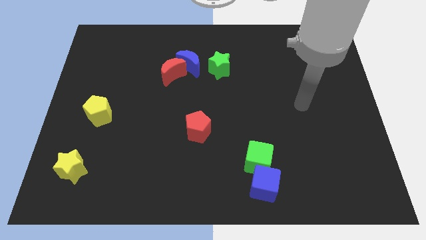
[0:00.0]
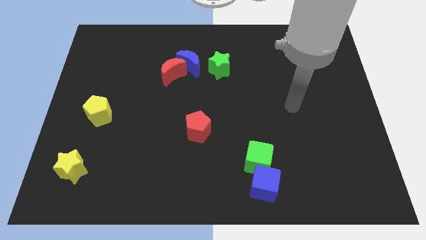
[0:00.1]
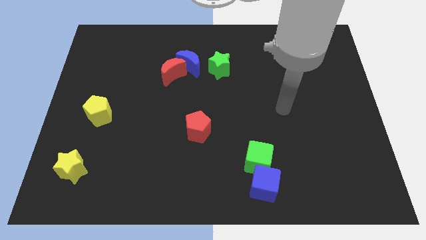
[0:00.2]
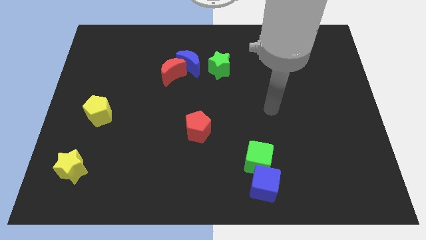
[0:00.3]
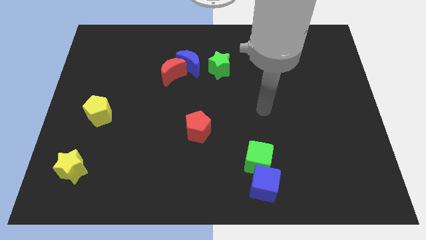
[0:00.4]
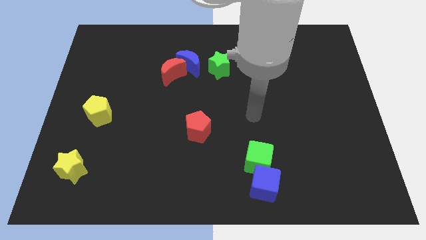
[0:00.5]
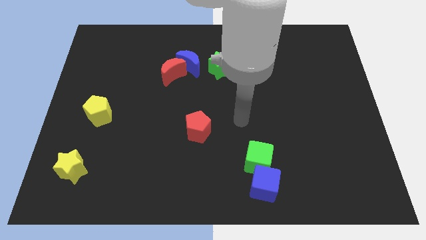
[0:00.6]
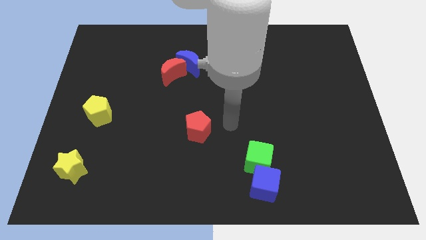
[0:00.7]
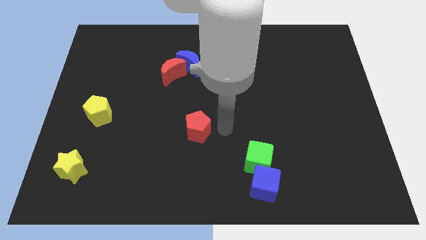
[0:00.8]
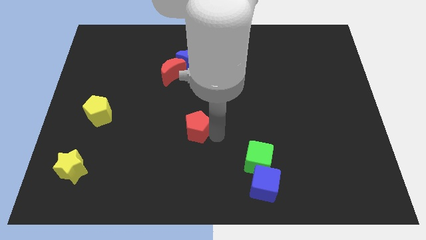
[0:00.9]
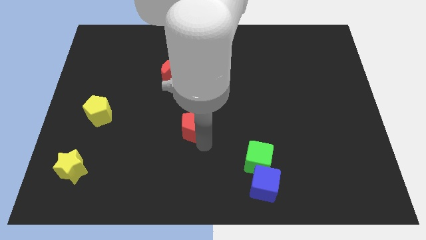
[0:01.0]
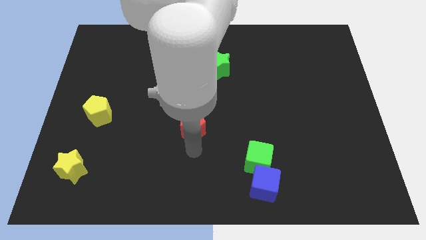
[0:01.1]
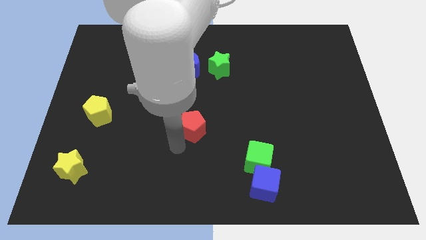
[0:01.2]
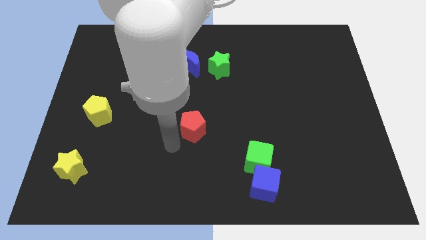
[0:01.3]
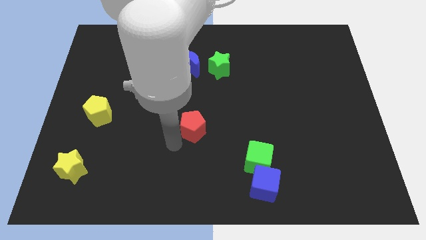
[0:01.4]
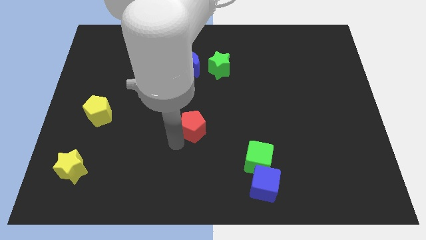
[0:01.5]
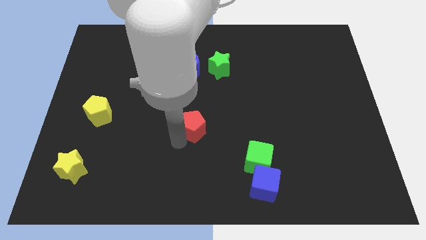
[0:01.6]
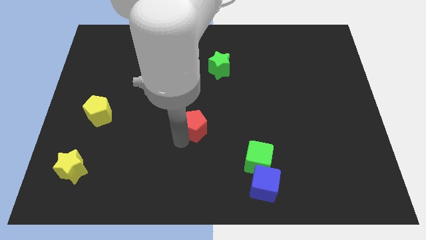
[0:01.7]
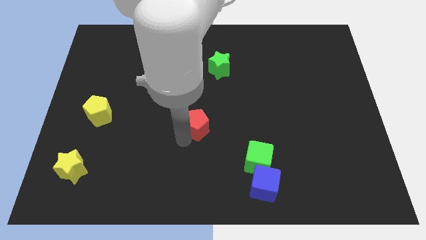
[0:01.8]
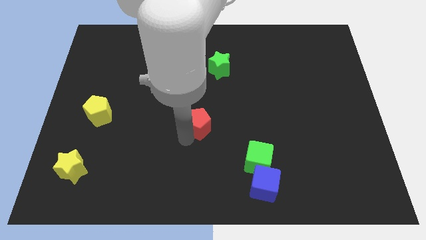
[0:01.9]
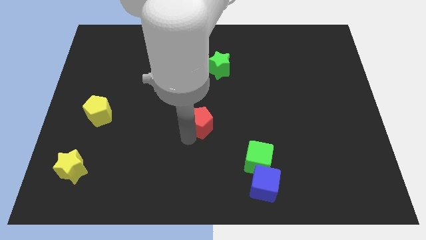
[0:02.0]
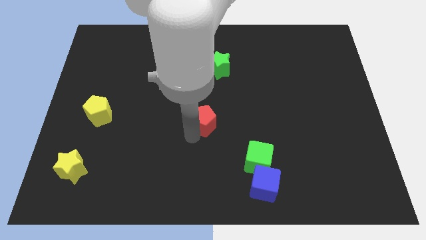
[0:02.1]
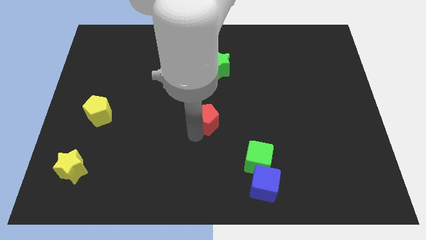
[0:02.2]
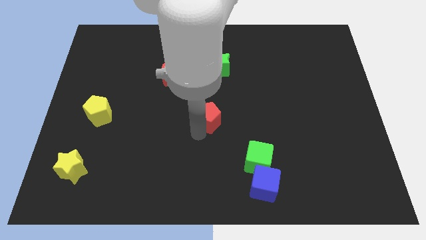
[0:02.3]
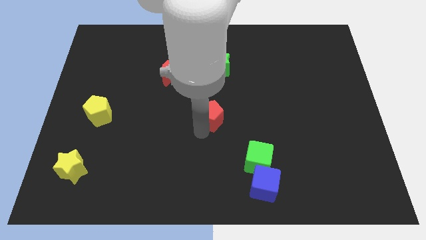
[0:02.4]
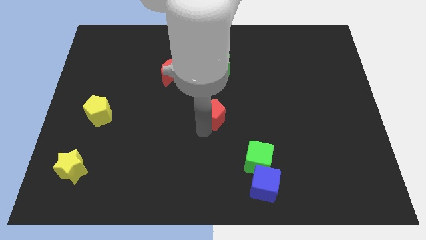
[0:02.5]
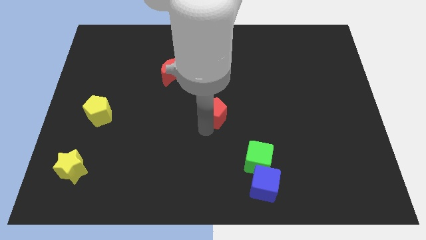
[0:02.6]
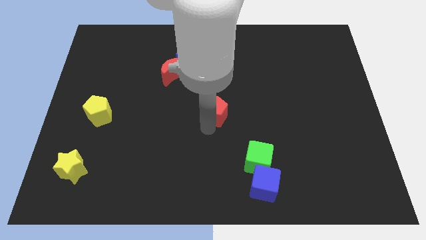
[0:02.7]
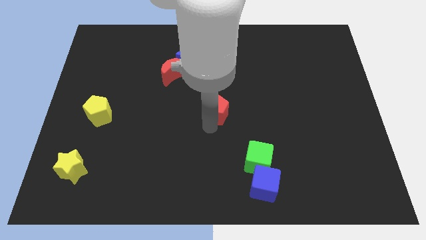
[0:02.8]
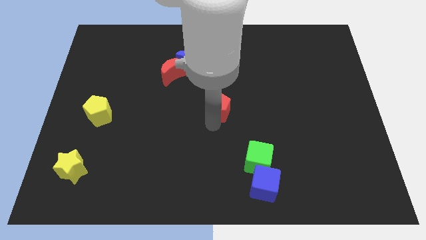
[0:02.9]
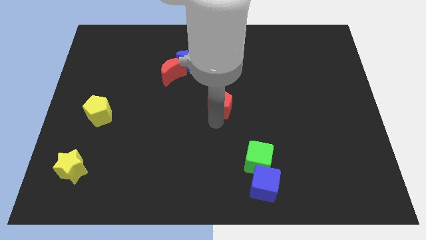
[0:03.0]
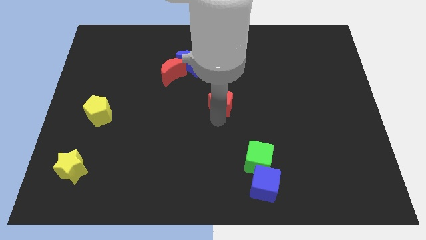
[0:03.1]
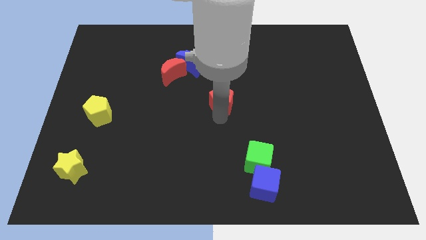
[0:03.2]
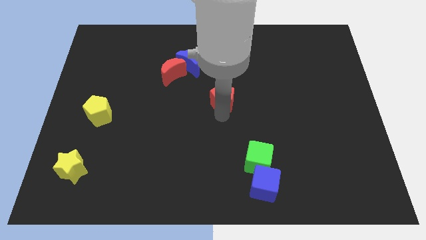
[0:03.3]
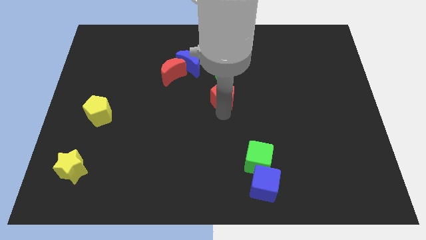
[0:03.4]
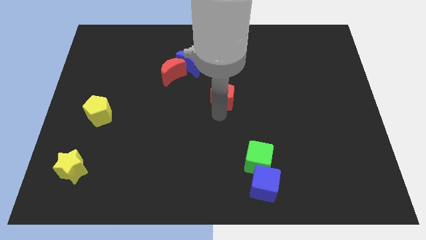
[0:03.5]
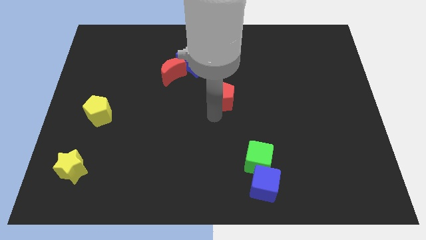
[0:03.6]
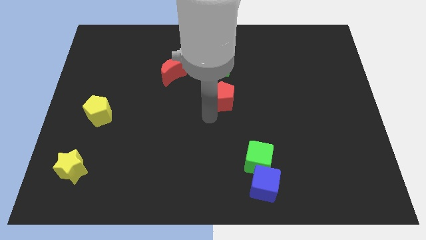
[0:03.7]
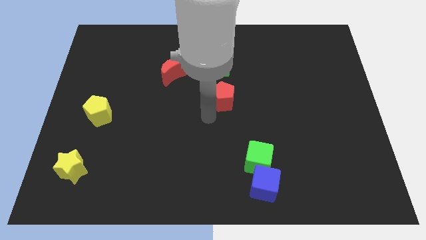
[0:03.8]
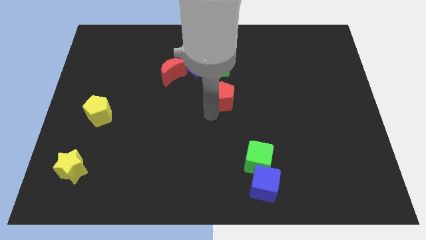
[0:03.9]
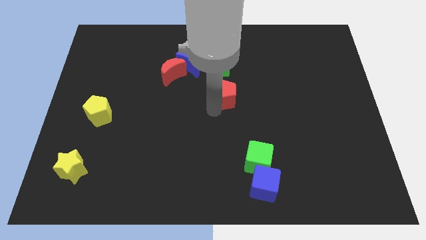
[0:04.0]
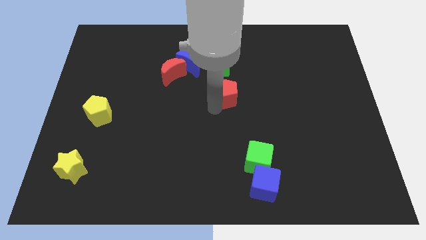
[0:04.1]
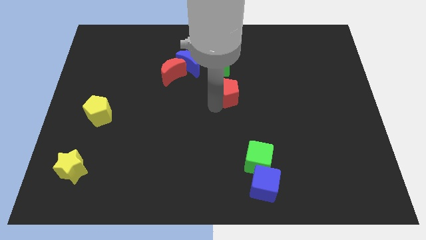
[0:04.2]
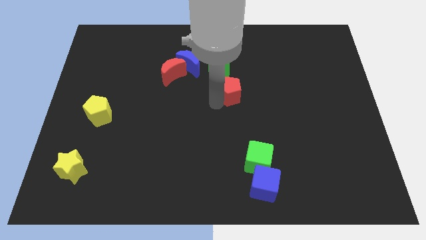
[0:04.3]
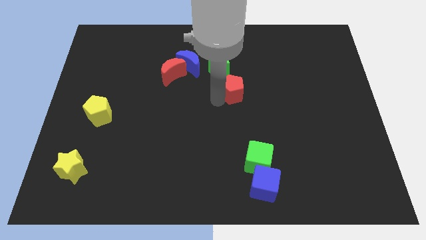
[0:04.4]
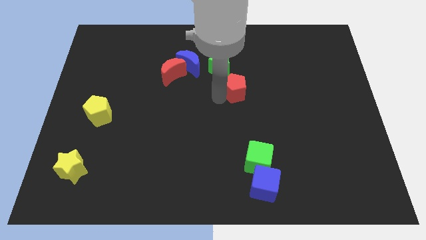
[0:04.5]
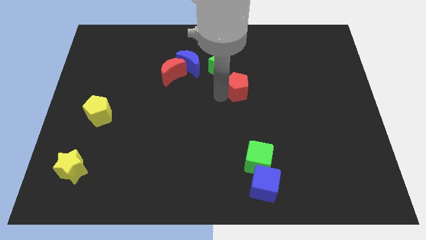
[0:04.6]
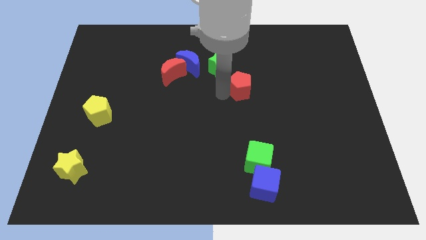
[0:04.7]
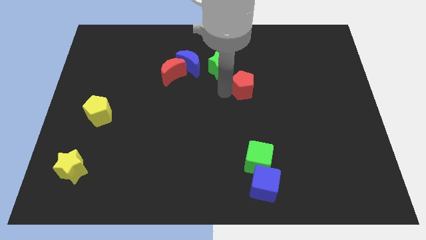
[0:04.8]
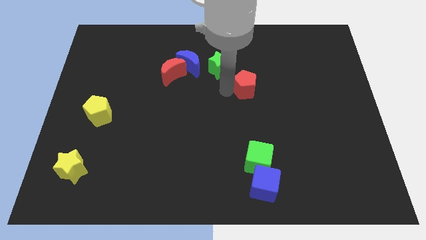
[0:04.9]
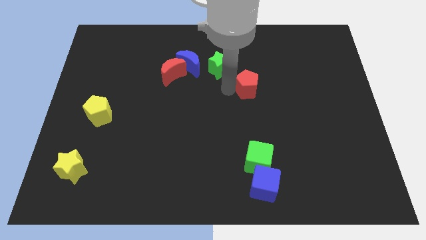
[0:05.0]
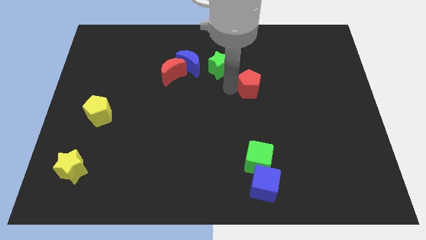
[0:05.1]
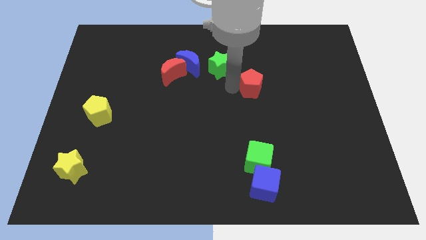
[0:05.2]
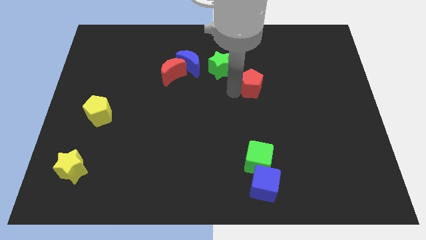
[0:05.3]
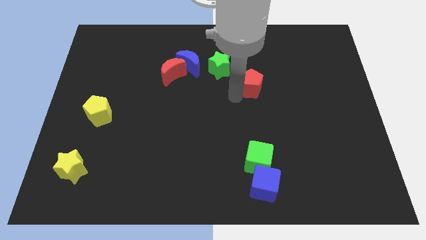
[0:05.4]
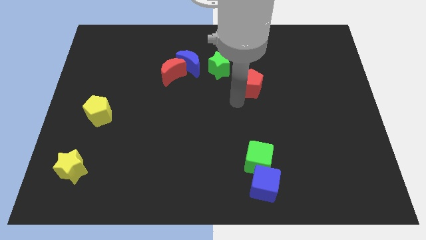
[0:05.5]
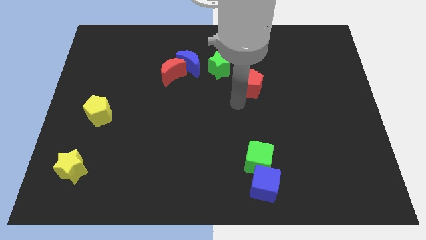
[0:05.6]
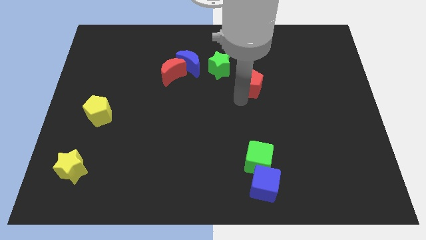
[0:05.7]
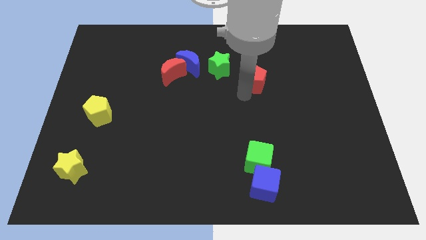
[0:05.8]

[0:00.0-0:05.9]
move the red pentagon upwards and to the right diagonally

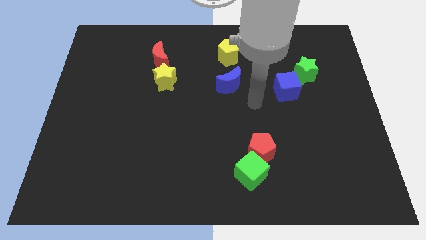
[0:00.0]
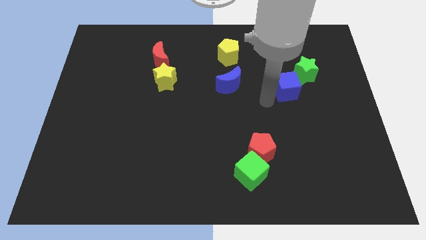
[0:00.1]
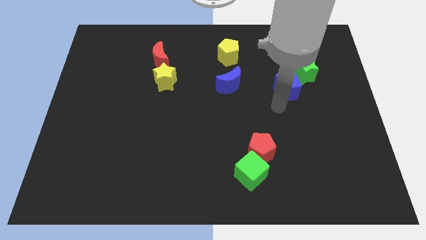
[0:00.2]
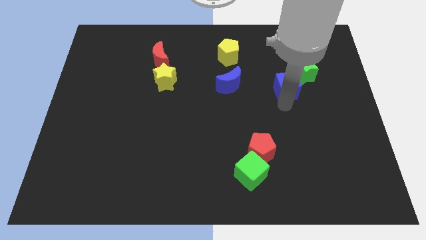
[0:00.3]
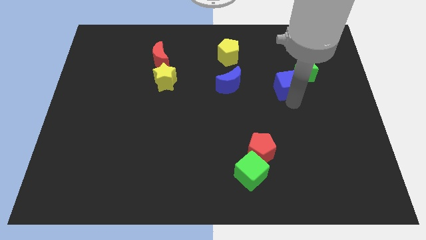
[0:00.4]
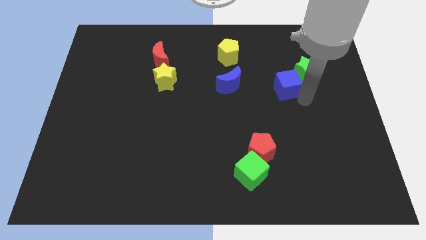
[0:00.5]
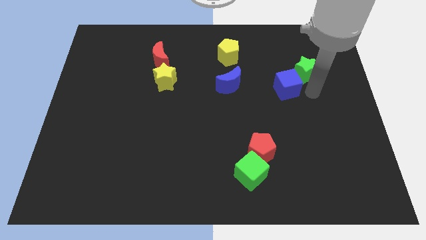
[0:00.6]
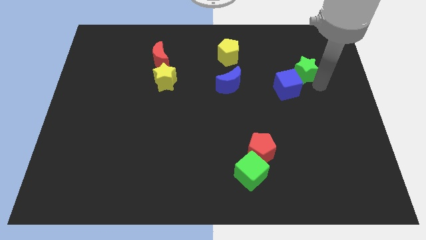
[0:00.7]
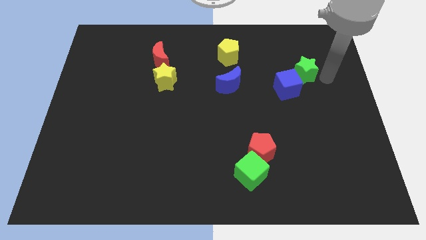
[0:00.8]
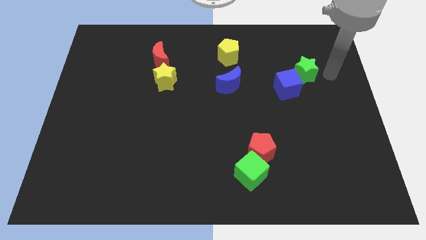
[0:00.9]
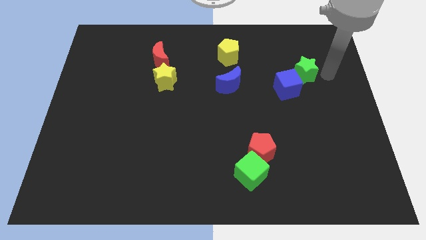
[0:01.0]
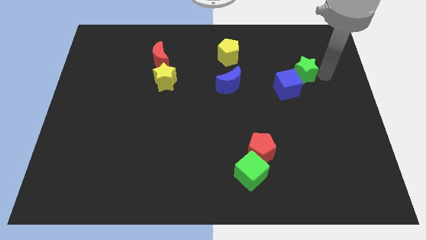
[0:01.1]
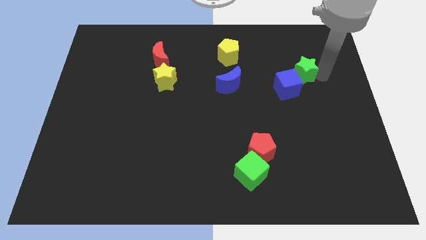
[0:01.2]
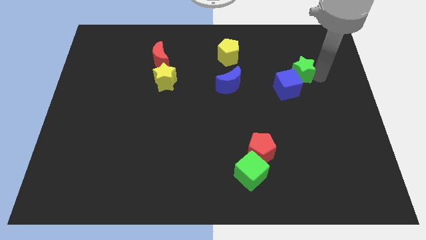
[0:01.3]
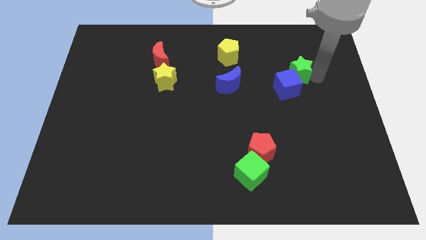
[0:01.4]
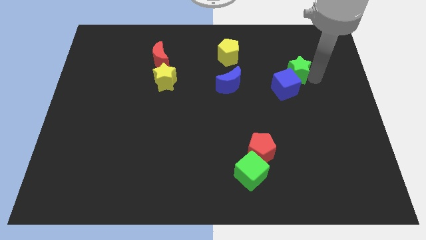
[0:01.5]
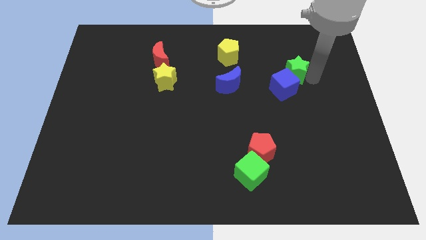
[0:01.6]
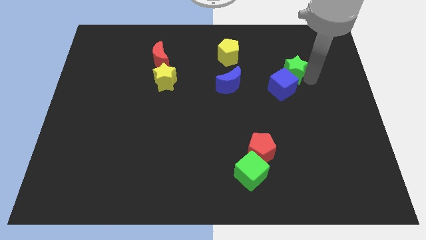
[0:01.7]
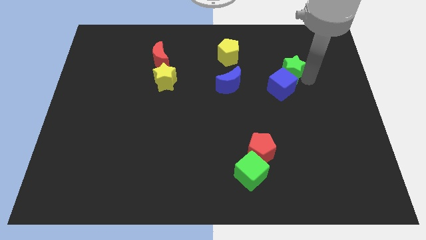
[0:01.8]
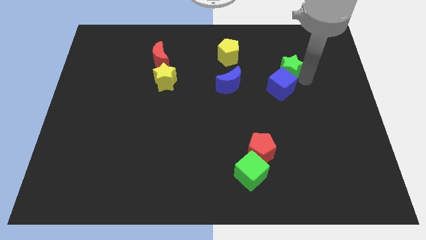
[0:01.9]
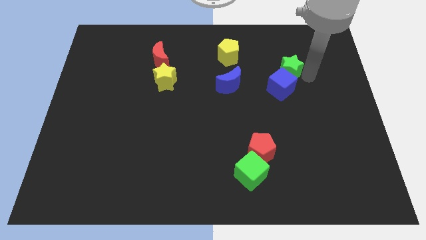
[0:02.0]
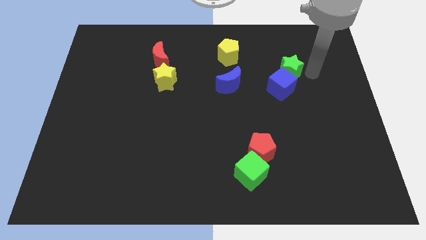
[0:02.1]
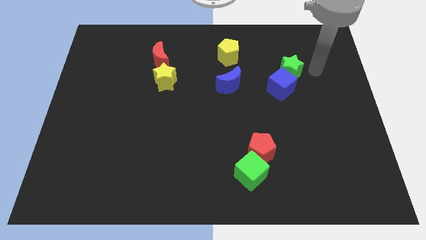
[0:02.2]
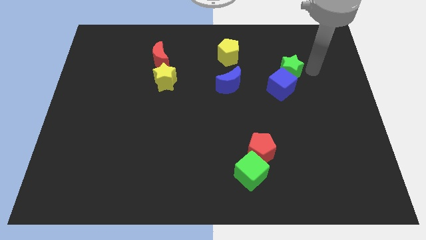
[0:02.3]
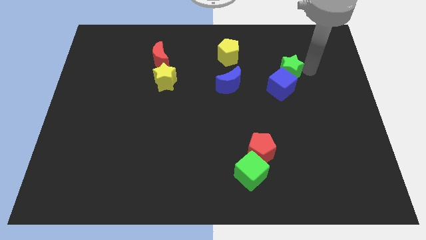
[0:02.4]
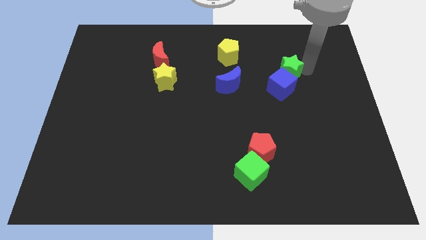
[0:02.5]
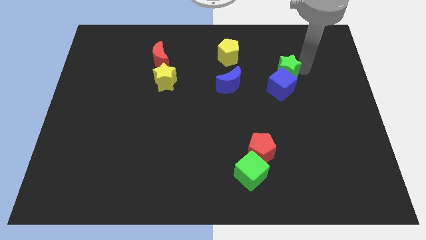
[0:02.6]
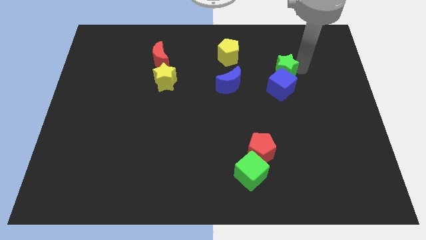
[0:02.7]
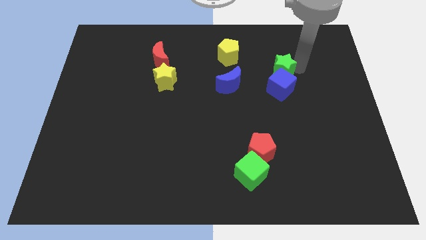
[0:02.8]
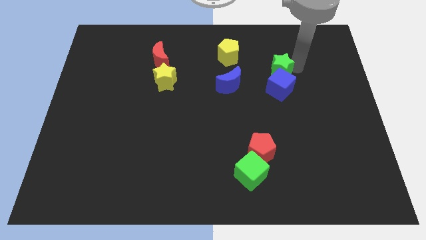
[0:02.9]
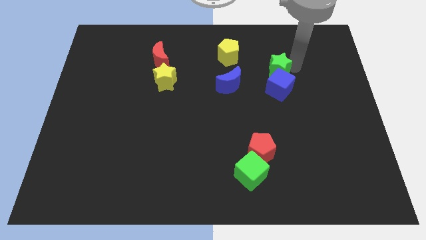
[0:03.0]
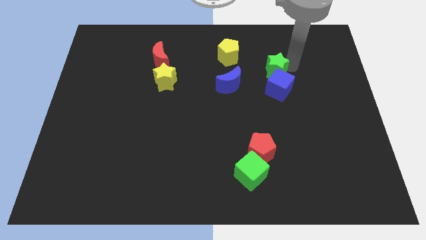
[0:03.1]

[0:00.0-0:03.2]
move the green star slightly left
